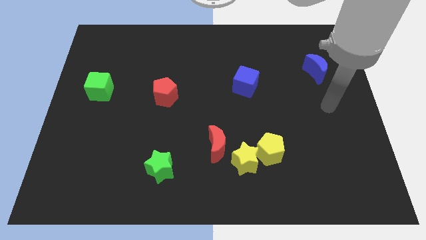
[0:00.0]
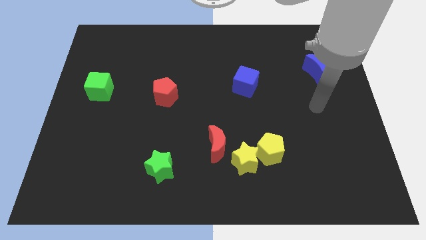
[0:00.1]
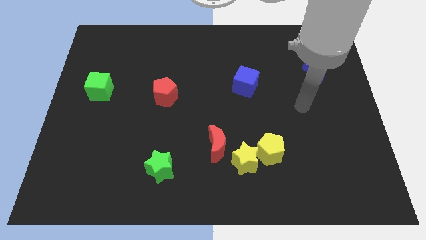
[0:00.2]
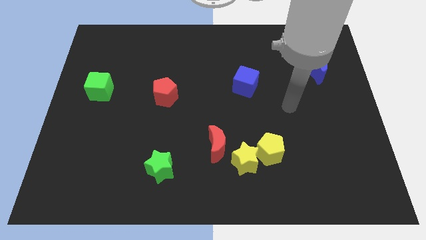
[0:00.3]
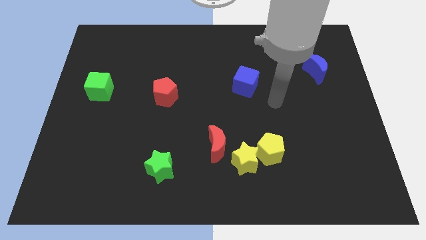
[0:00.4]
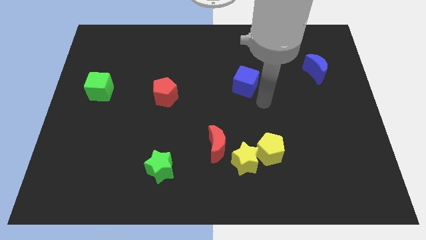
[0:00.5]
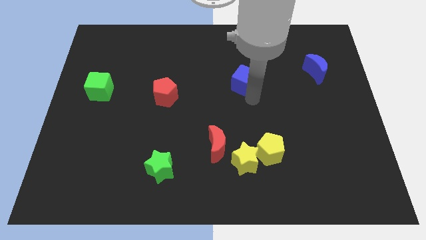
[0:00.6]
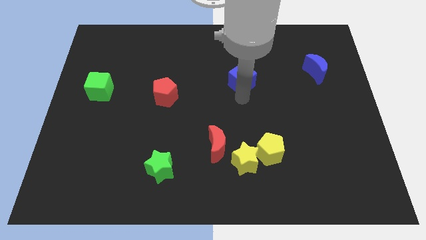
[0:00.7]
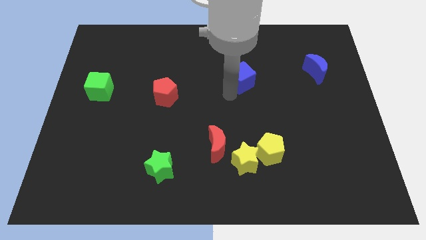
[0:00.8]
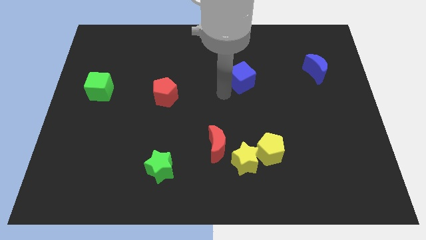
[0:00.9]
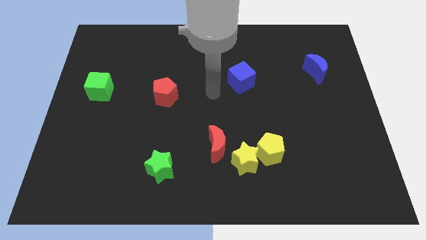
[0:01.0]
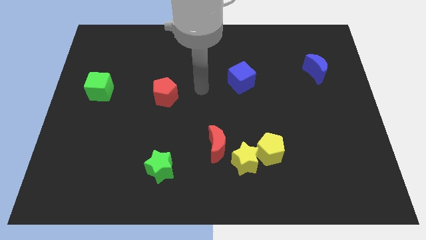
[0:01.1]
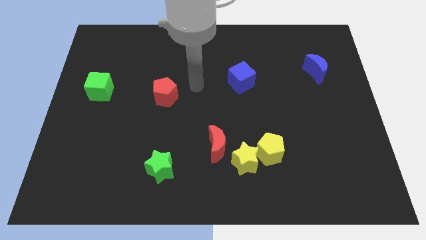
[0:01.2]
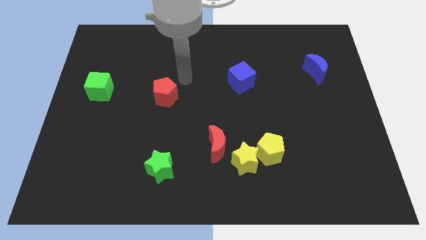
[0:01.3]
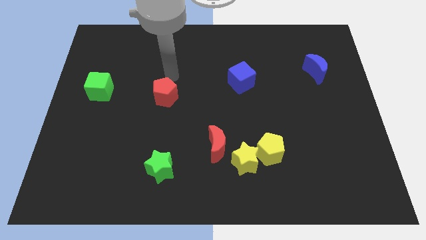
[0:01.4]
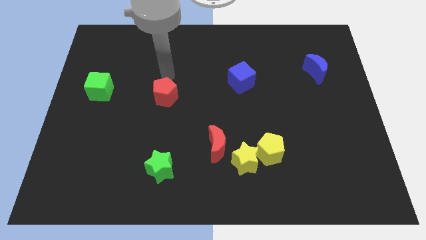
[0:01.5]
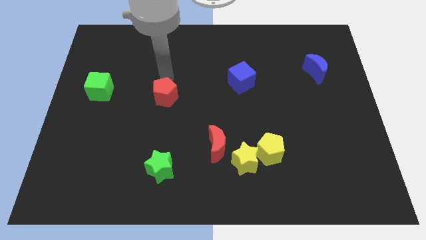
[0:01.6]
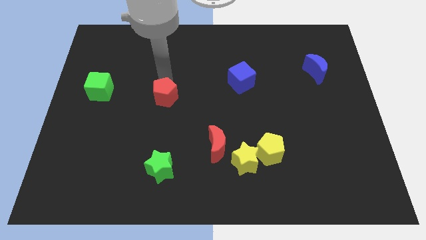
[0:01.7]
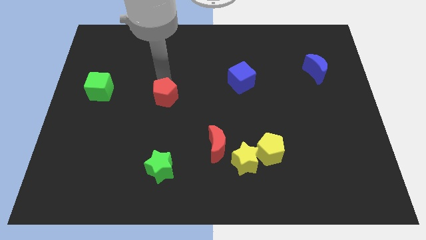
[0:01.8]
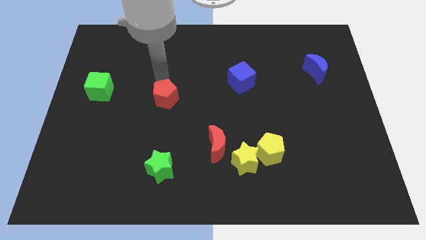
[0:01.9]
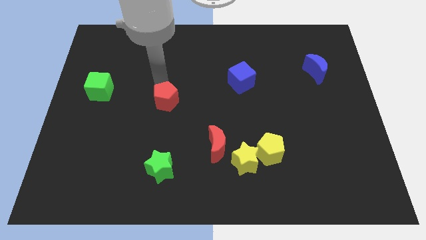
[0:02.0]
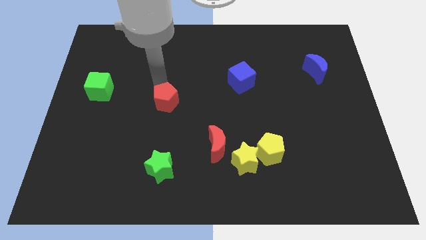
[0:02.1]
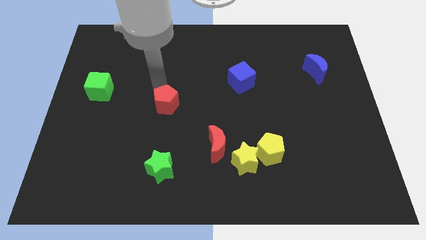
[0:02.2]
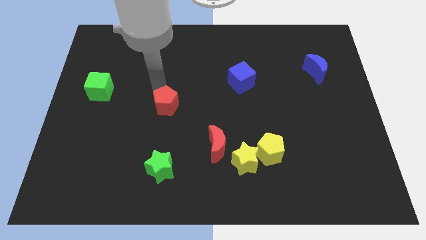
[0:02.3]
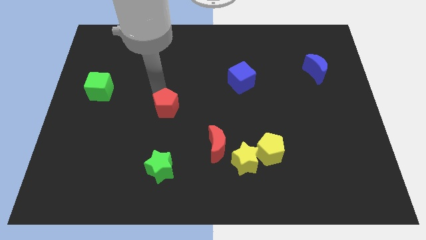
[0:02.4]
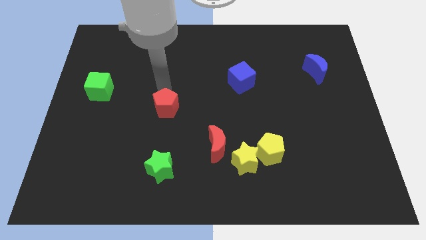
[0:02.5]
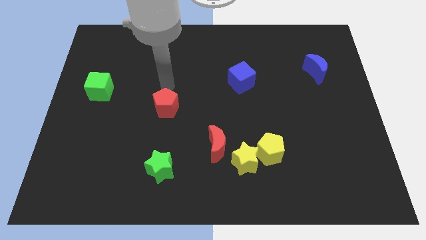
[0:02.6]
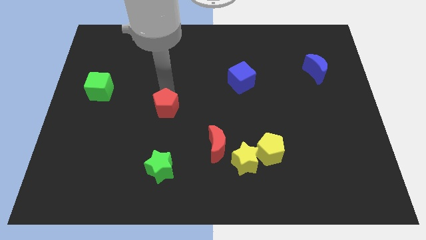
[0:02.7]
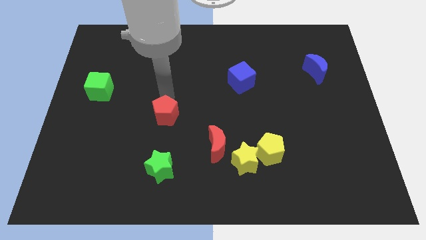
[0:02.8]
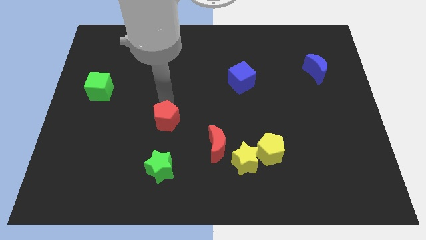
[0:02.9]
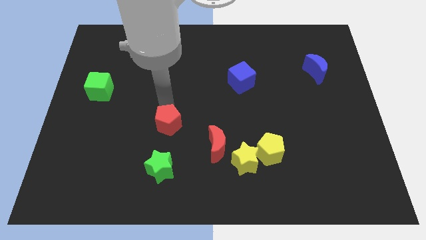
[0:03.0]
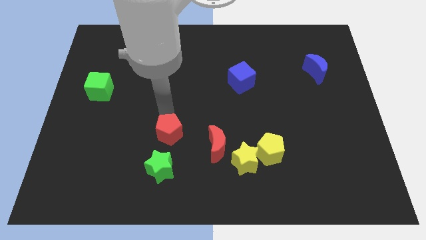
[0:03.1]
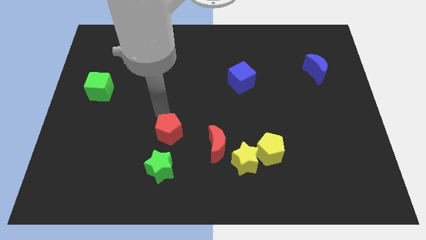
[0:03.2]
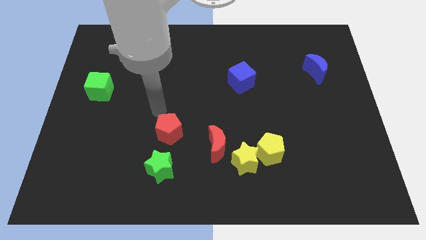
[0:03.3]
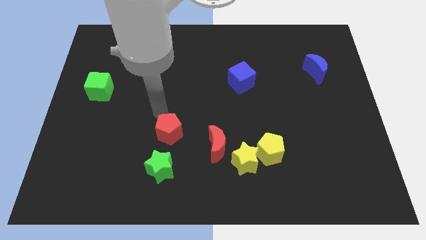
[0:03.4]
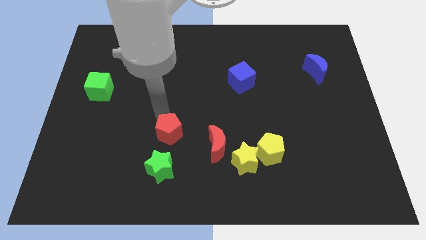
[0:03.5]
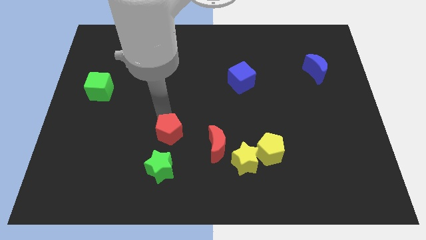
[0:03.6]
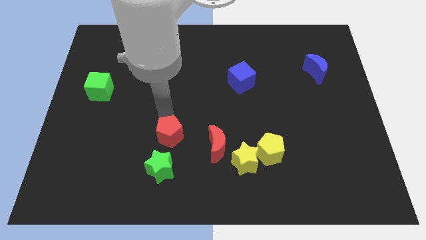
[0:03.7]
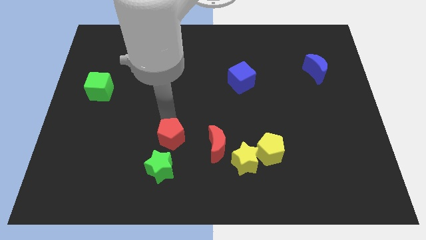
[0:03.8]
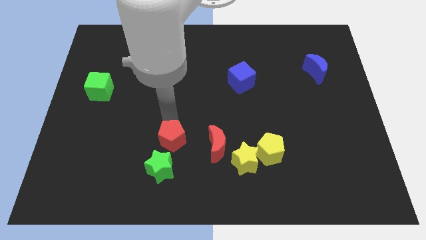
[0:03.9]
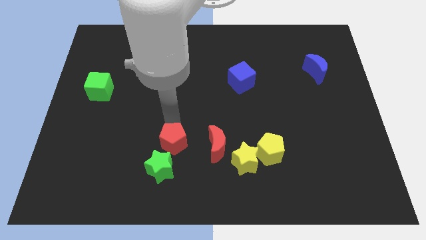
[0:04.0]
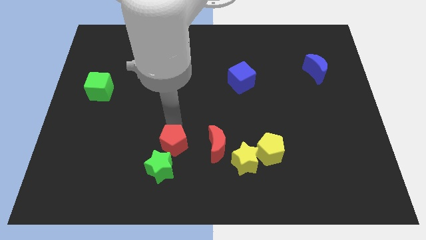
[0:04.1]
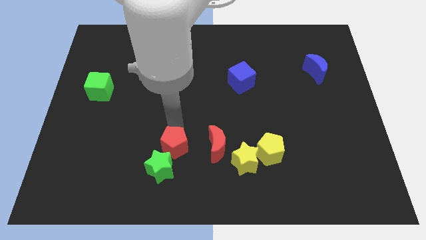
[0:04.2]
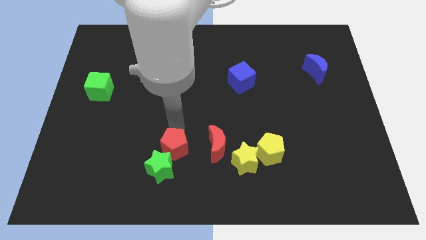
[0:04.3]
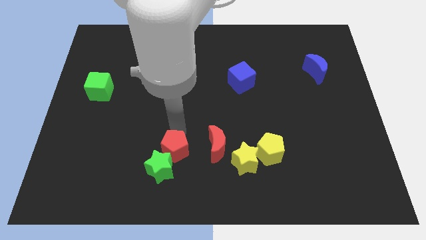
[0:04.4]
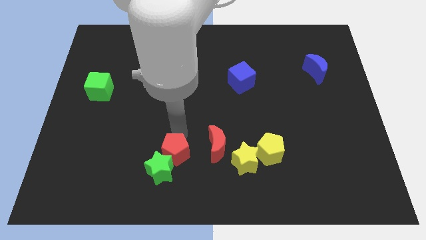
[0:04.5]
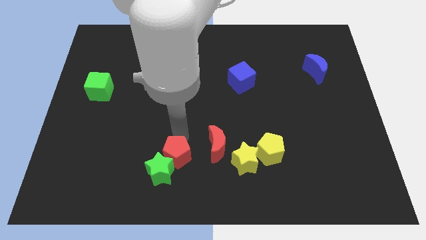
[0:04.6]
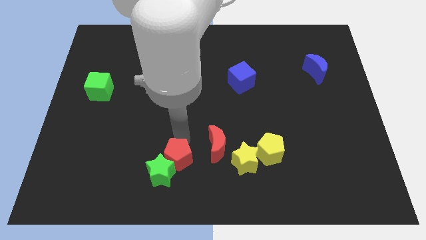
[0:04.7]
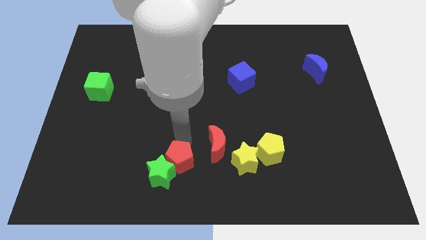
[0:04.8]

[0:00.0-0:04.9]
put the red pentagon to the bottom

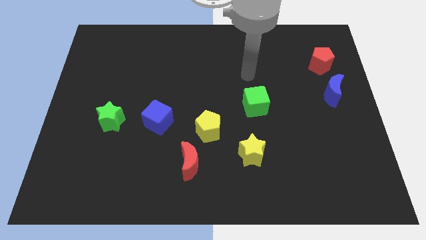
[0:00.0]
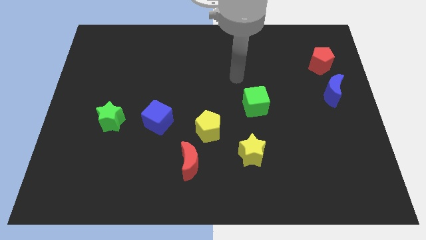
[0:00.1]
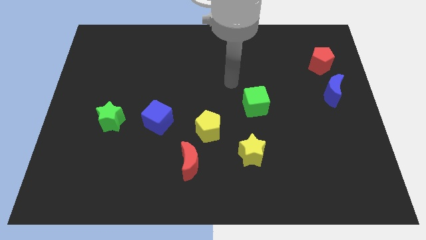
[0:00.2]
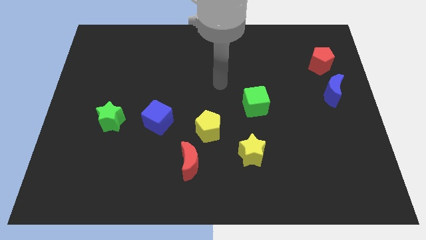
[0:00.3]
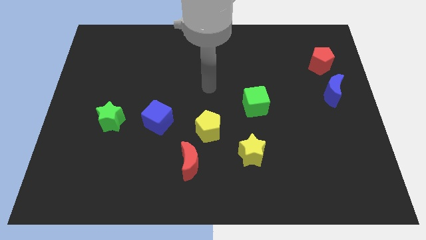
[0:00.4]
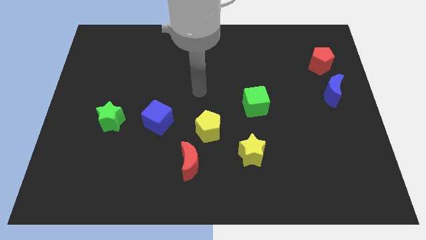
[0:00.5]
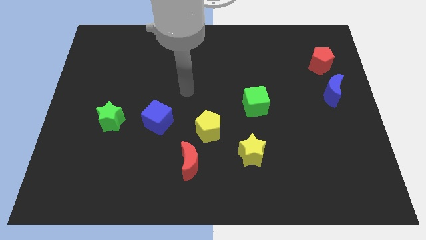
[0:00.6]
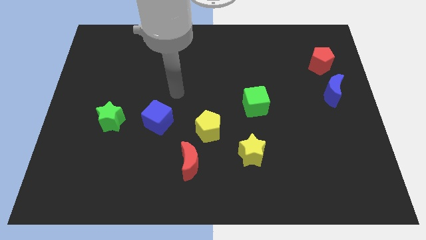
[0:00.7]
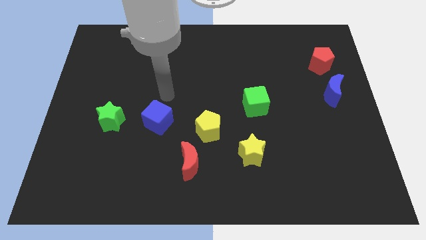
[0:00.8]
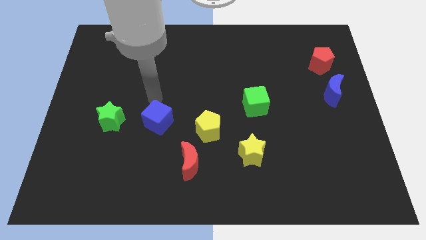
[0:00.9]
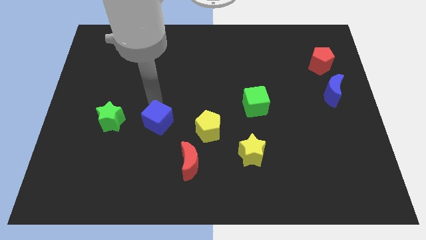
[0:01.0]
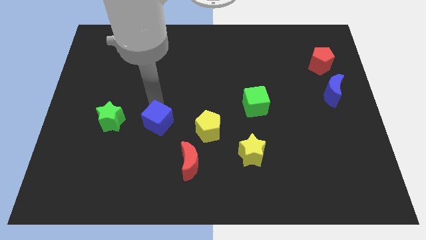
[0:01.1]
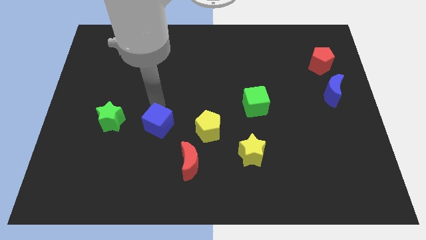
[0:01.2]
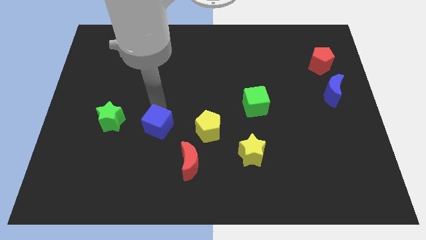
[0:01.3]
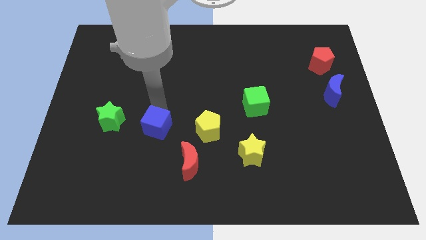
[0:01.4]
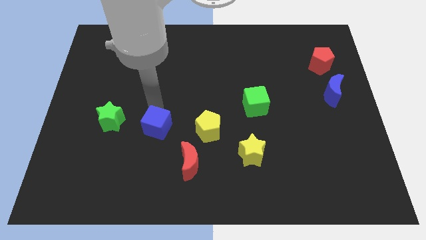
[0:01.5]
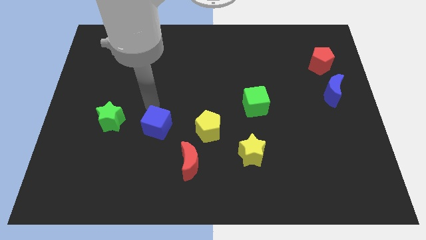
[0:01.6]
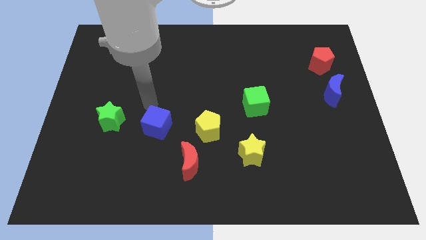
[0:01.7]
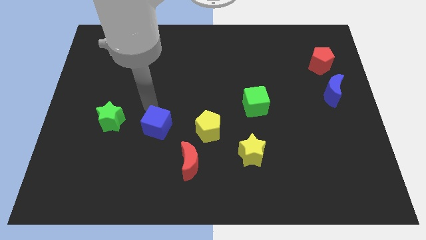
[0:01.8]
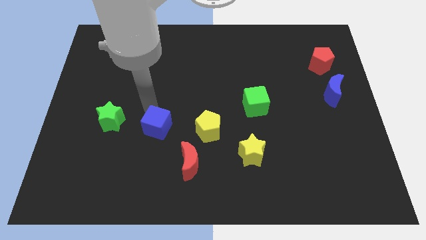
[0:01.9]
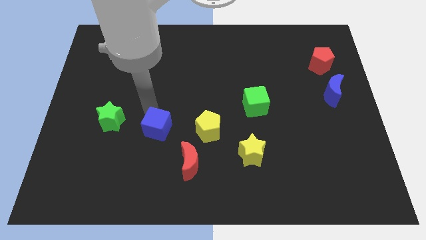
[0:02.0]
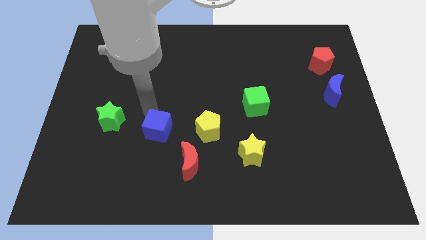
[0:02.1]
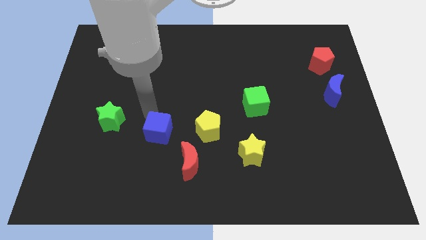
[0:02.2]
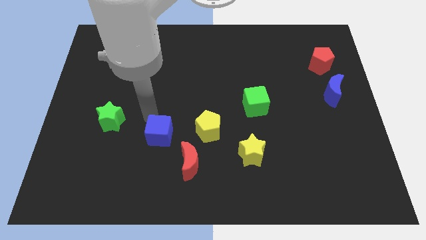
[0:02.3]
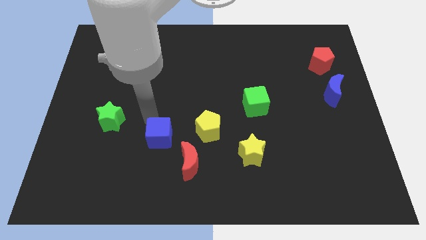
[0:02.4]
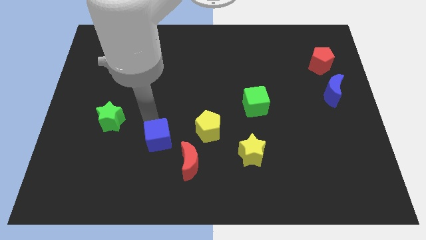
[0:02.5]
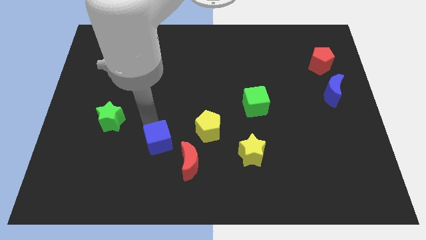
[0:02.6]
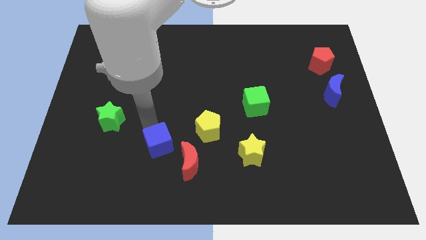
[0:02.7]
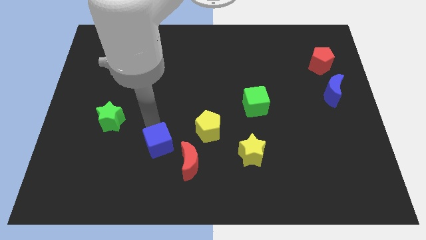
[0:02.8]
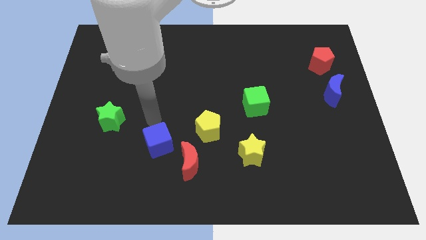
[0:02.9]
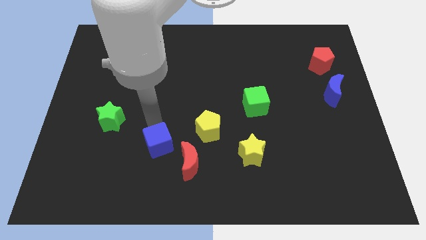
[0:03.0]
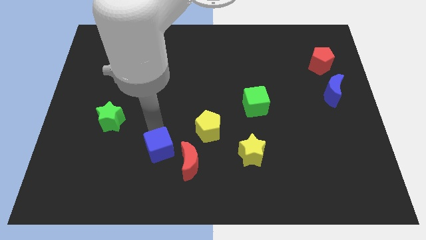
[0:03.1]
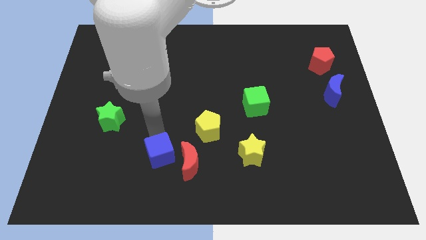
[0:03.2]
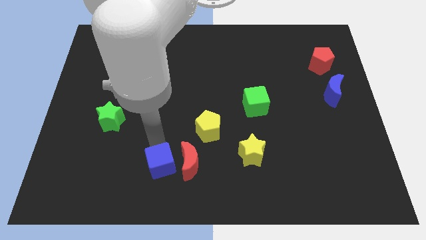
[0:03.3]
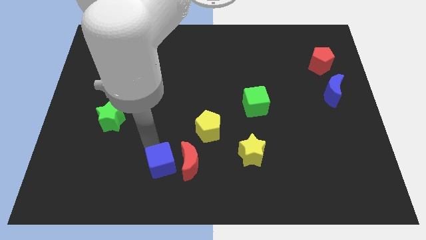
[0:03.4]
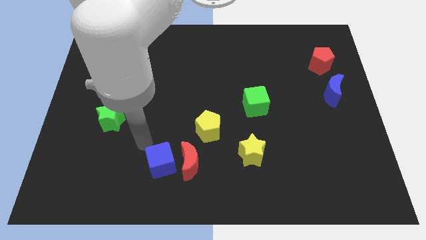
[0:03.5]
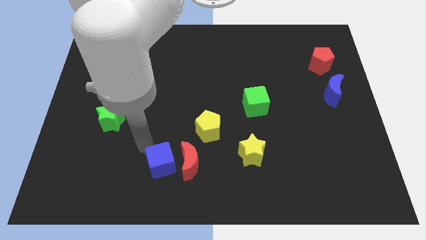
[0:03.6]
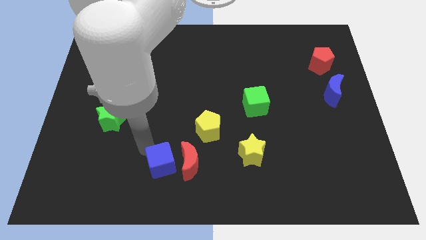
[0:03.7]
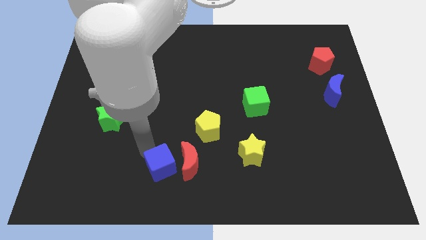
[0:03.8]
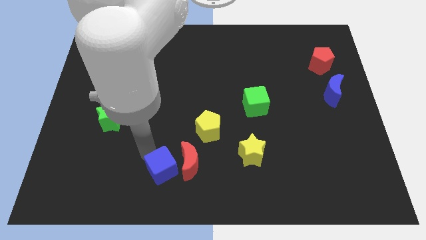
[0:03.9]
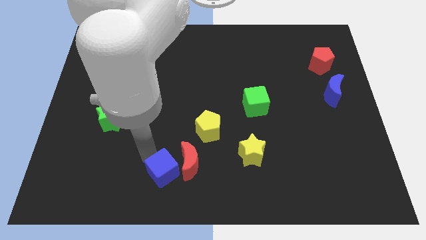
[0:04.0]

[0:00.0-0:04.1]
put the blue cube to the bottom
